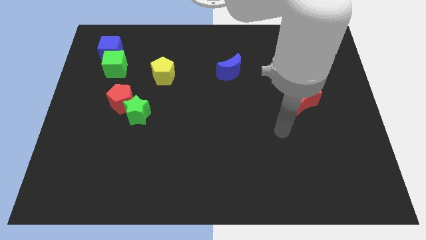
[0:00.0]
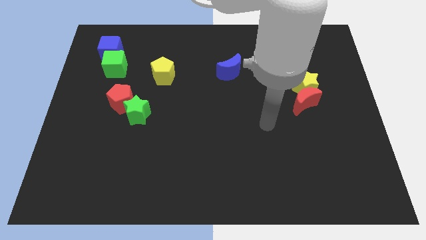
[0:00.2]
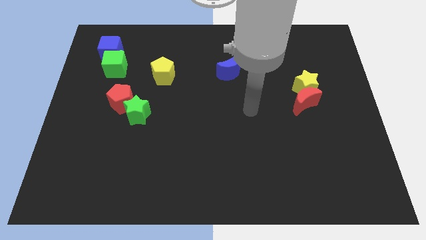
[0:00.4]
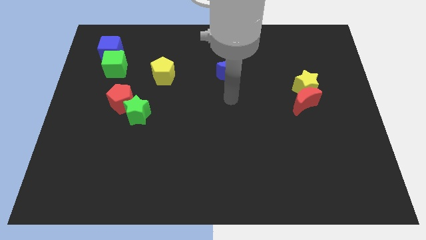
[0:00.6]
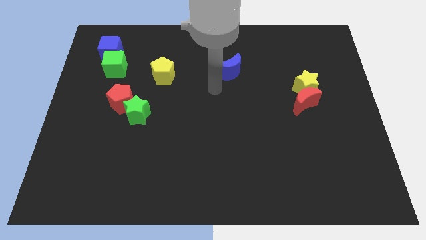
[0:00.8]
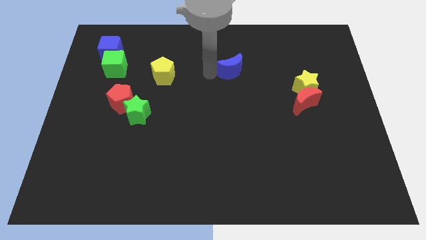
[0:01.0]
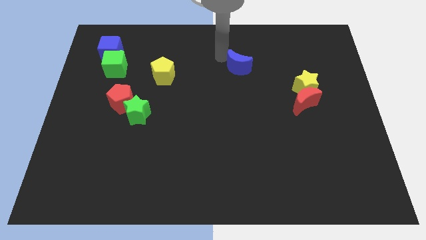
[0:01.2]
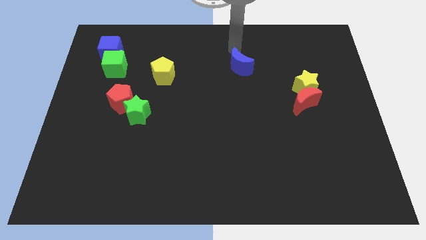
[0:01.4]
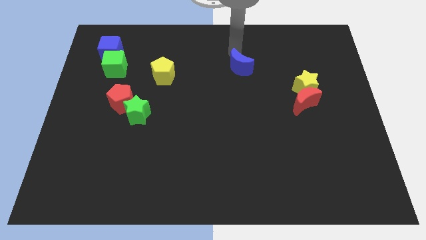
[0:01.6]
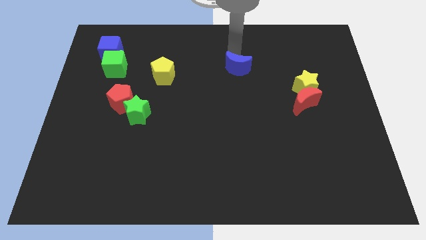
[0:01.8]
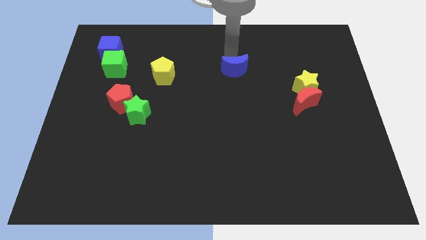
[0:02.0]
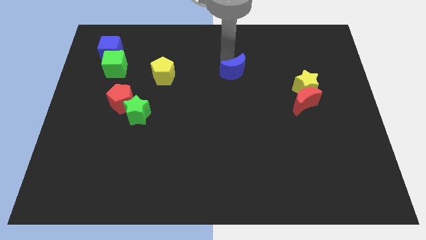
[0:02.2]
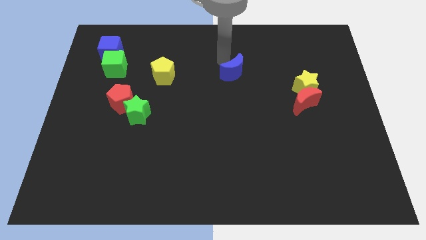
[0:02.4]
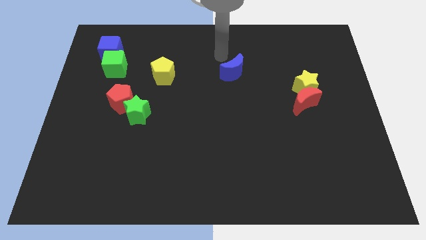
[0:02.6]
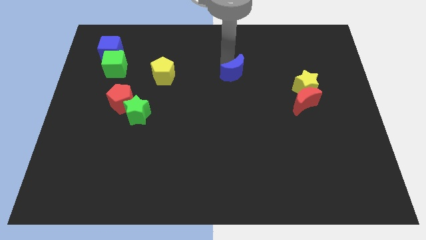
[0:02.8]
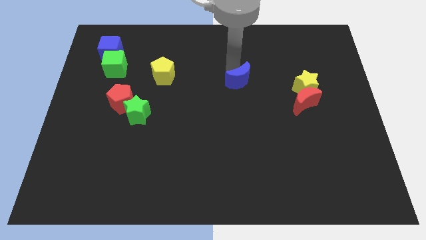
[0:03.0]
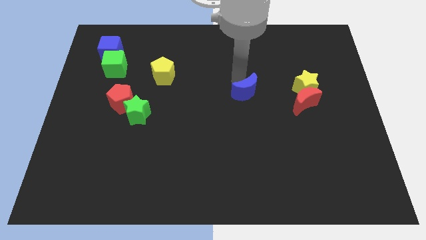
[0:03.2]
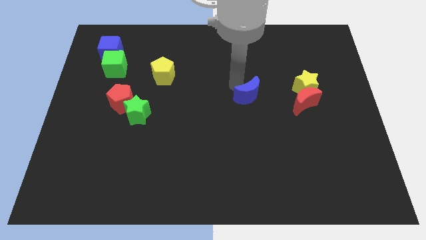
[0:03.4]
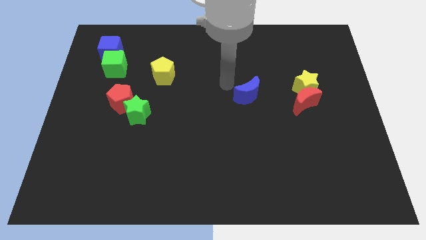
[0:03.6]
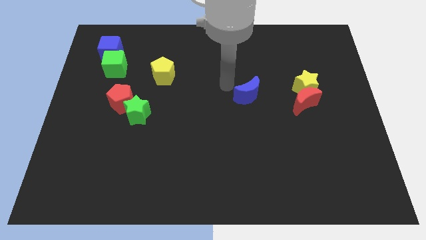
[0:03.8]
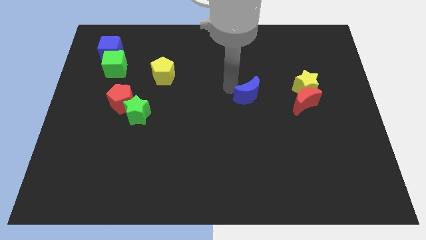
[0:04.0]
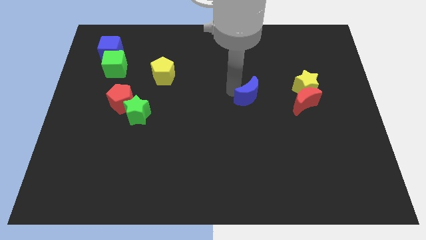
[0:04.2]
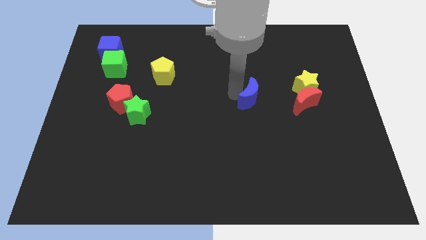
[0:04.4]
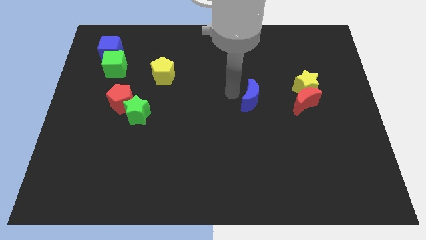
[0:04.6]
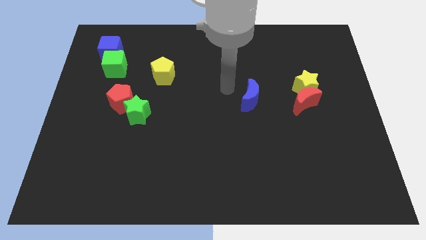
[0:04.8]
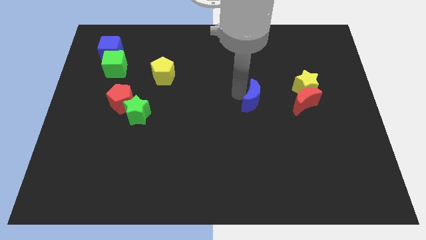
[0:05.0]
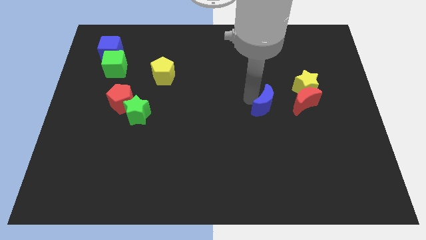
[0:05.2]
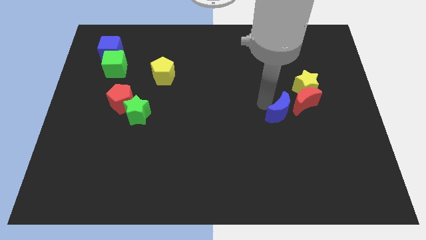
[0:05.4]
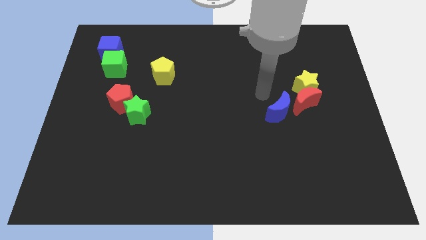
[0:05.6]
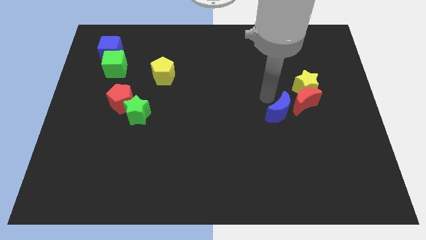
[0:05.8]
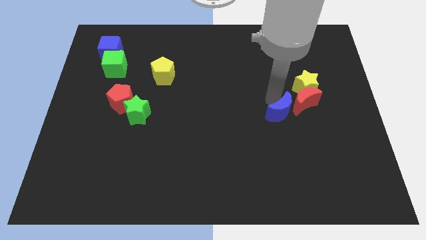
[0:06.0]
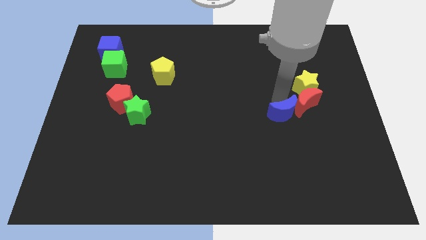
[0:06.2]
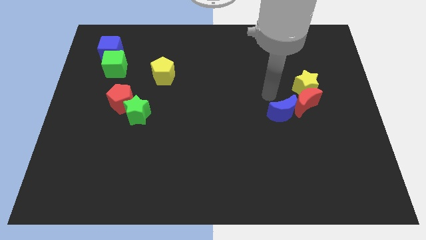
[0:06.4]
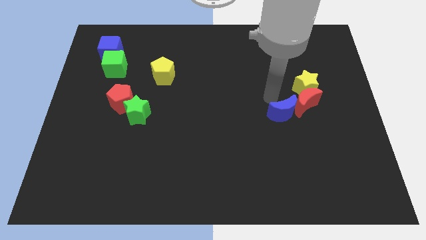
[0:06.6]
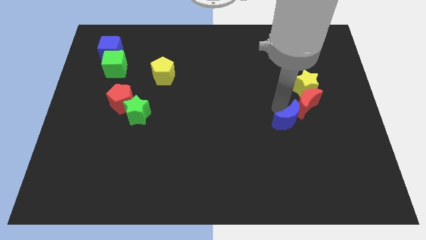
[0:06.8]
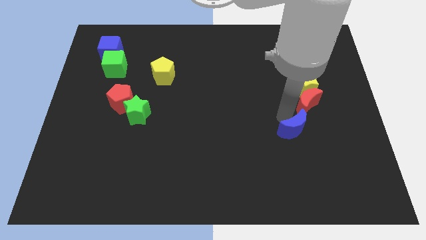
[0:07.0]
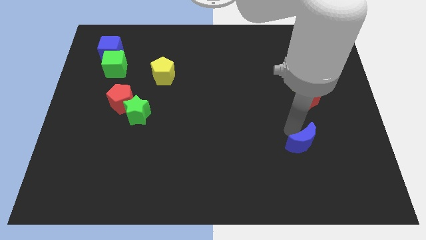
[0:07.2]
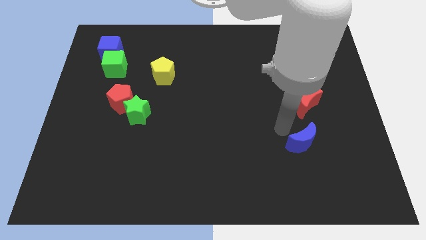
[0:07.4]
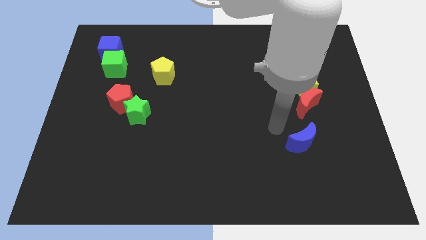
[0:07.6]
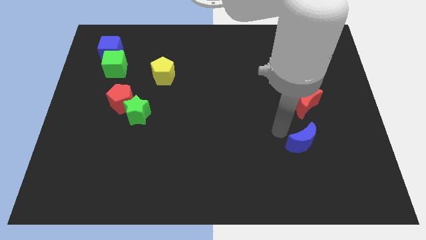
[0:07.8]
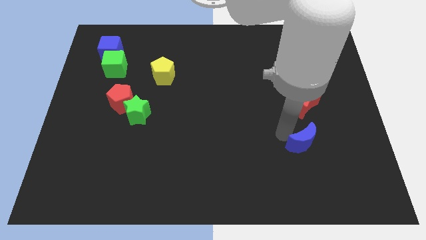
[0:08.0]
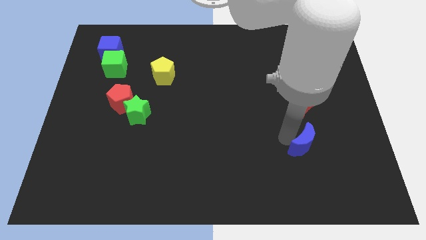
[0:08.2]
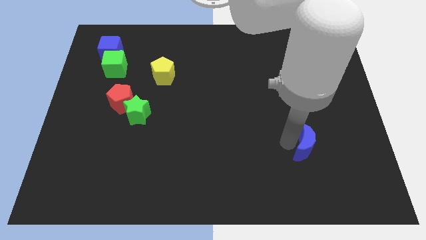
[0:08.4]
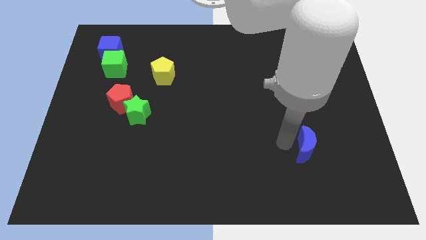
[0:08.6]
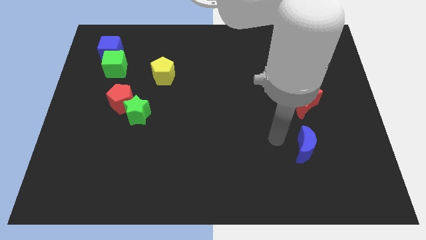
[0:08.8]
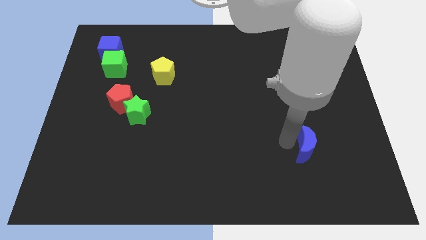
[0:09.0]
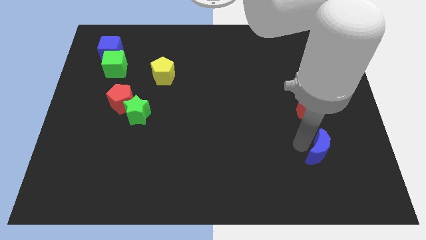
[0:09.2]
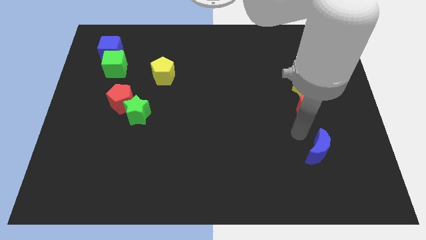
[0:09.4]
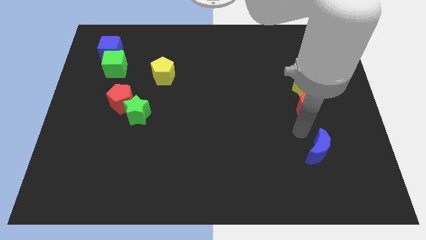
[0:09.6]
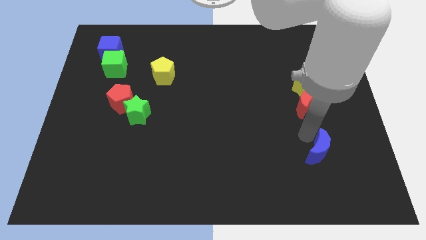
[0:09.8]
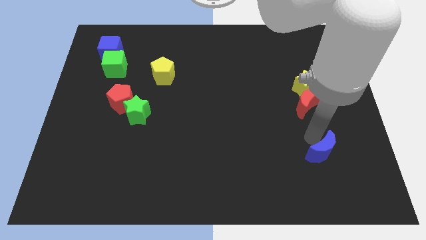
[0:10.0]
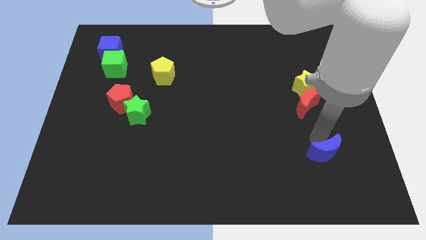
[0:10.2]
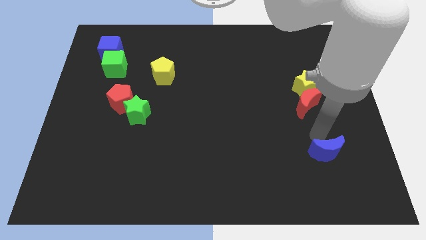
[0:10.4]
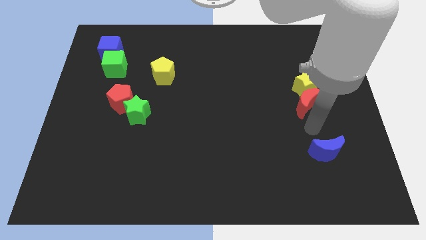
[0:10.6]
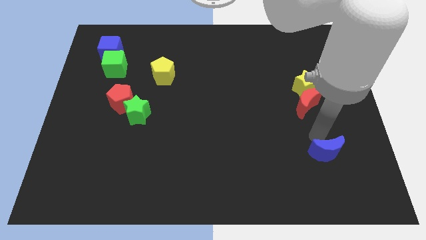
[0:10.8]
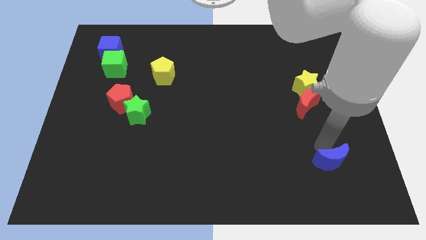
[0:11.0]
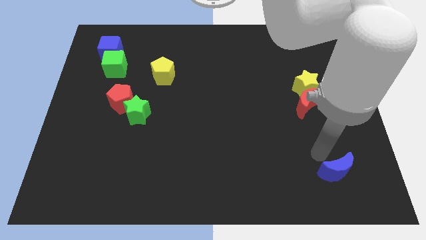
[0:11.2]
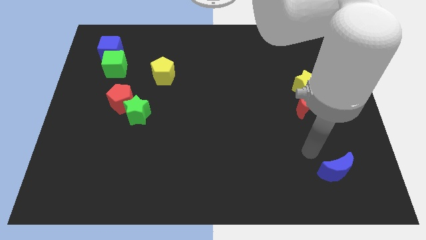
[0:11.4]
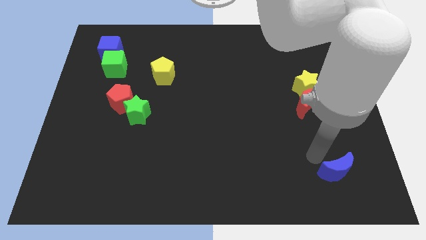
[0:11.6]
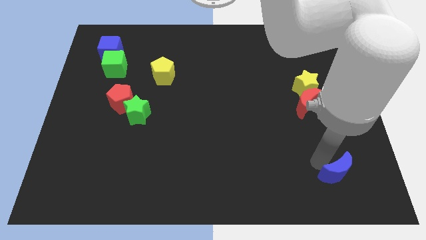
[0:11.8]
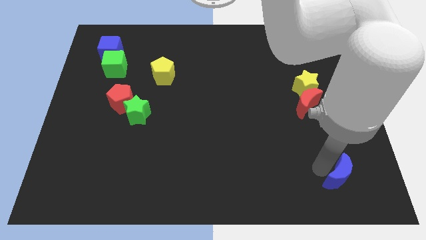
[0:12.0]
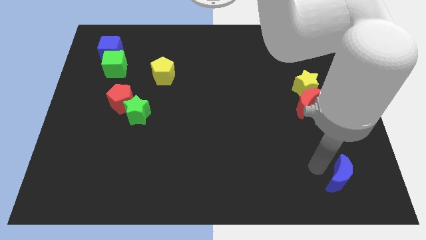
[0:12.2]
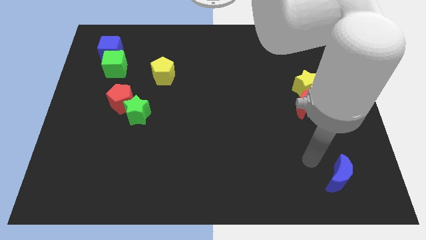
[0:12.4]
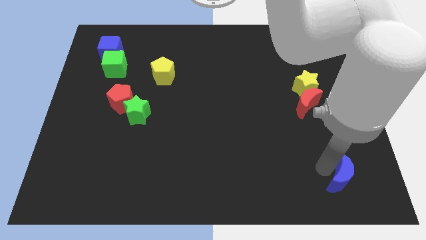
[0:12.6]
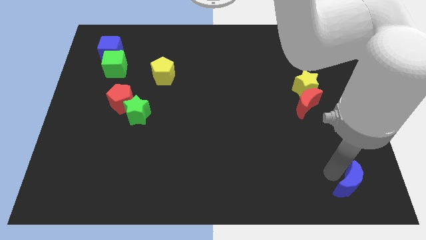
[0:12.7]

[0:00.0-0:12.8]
move the blue moon to the bottom right corner
